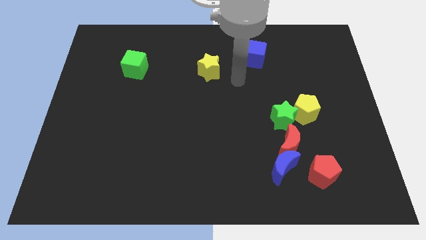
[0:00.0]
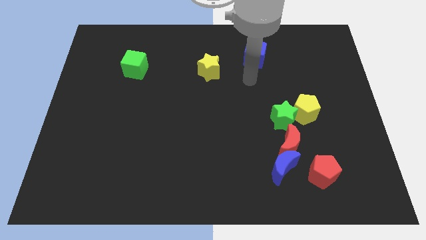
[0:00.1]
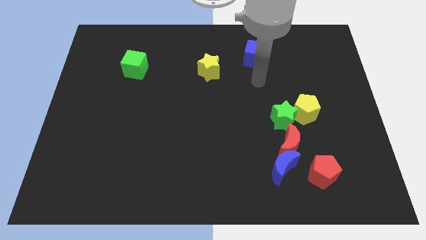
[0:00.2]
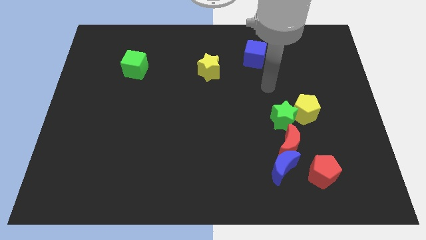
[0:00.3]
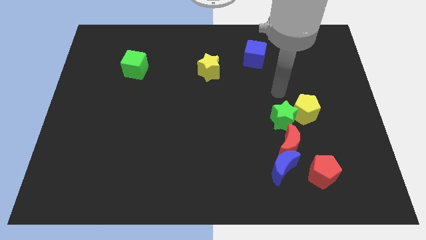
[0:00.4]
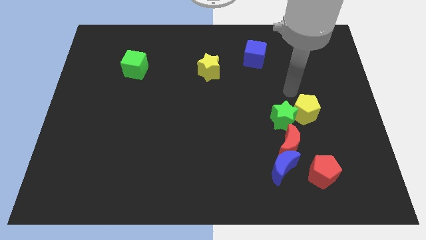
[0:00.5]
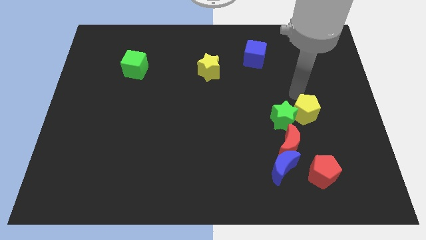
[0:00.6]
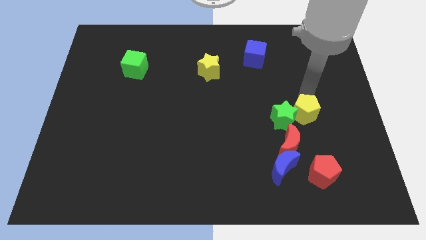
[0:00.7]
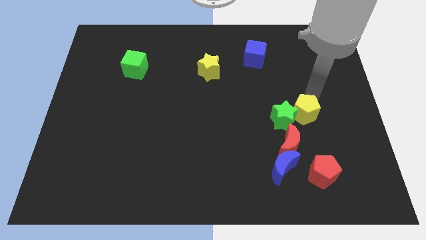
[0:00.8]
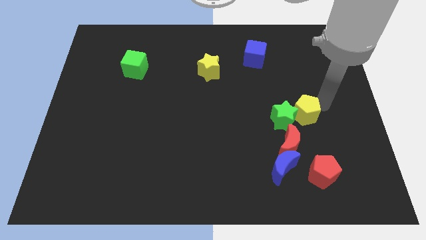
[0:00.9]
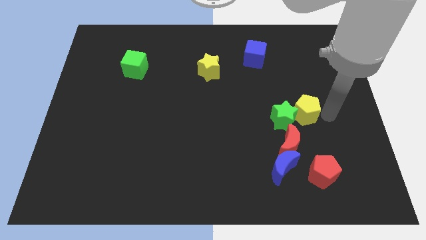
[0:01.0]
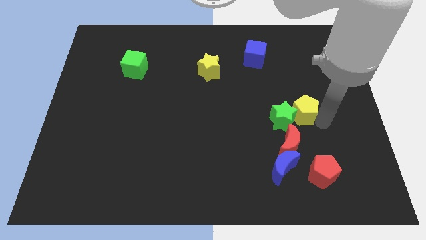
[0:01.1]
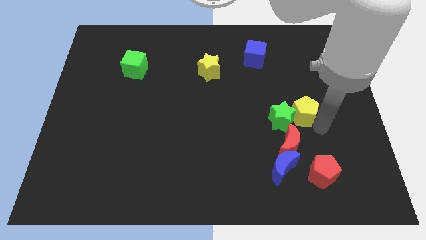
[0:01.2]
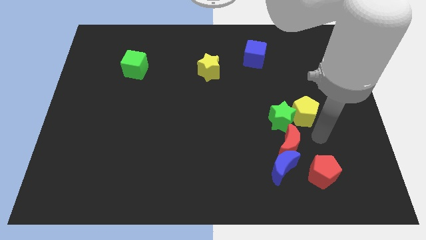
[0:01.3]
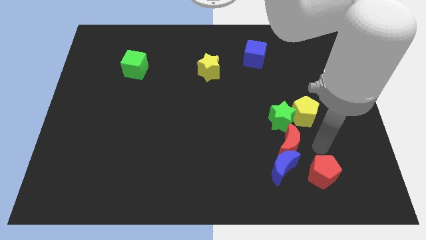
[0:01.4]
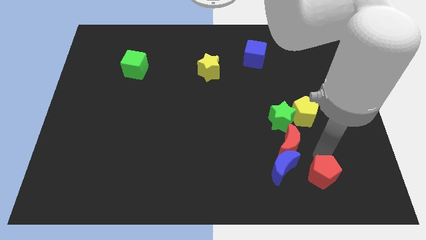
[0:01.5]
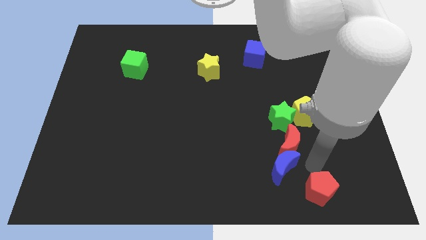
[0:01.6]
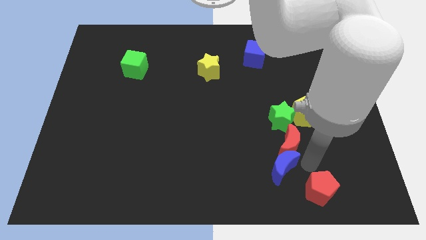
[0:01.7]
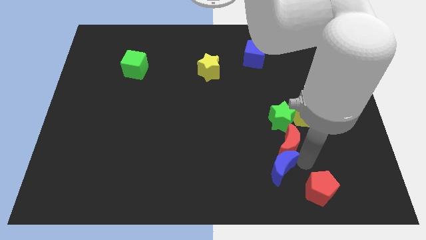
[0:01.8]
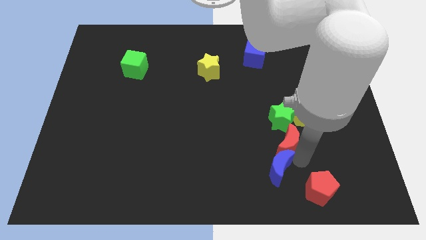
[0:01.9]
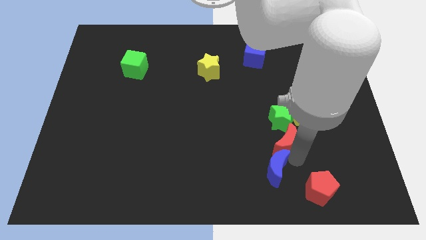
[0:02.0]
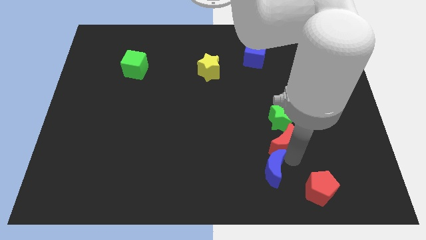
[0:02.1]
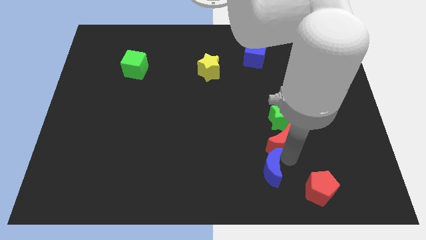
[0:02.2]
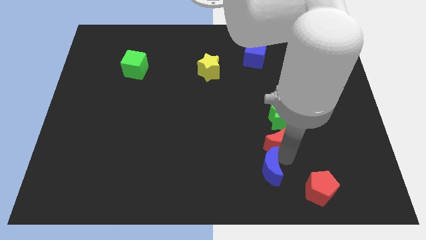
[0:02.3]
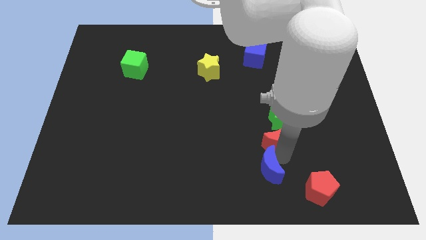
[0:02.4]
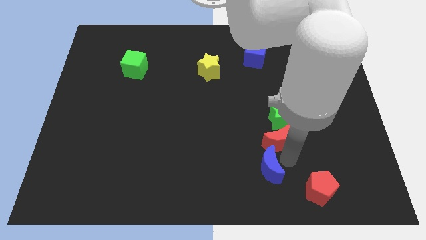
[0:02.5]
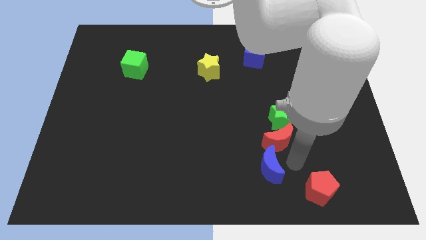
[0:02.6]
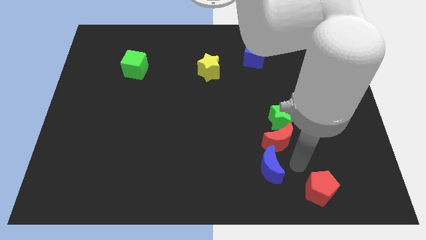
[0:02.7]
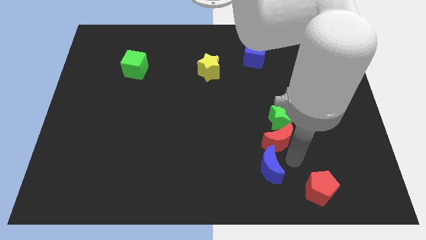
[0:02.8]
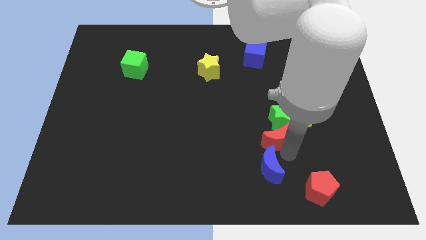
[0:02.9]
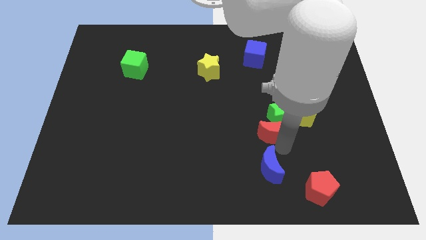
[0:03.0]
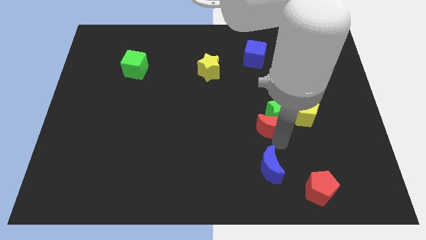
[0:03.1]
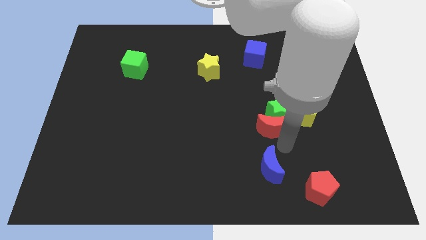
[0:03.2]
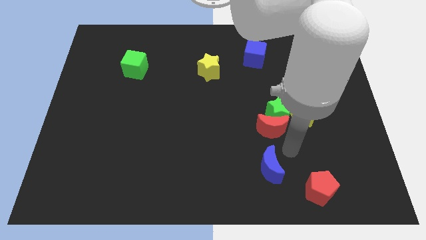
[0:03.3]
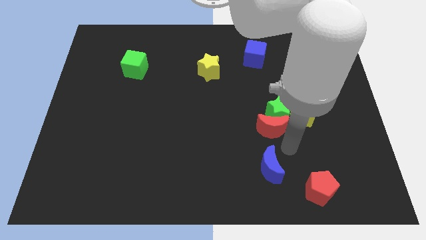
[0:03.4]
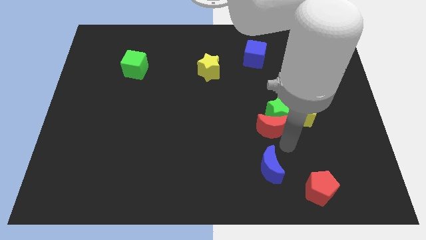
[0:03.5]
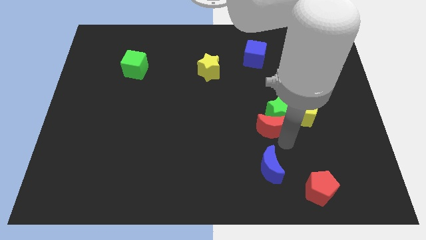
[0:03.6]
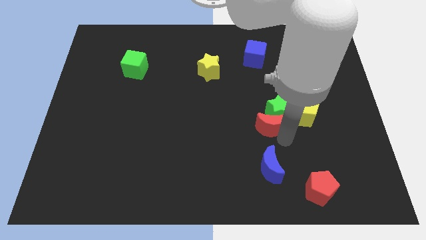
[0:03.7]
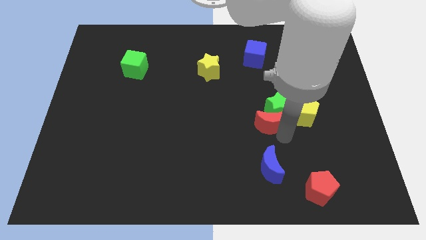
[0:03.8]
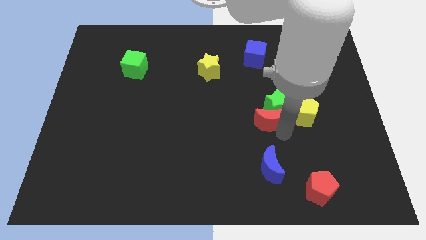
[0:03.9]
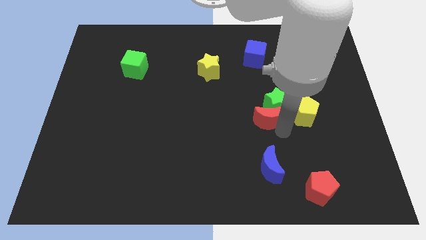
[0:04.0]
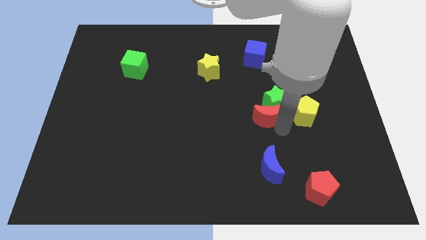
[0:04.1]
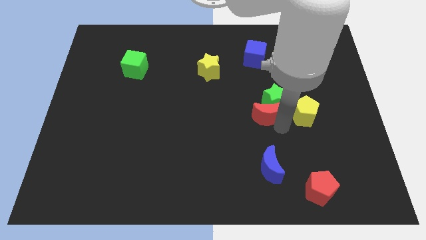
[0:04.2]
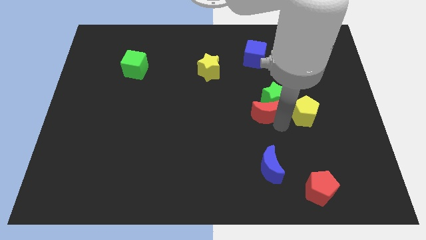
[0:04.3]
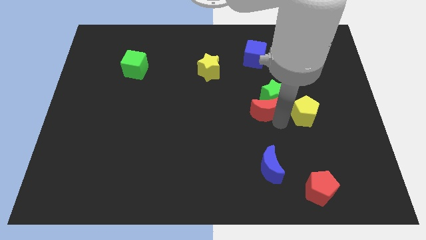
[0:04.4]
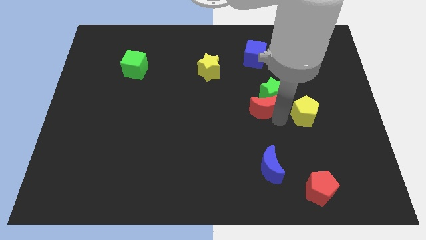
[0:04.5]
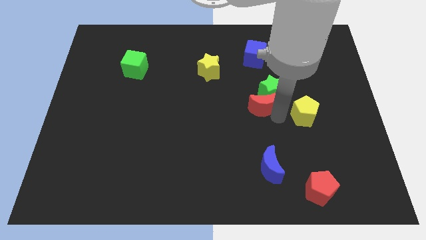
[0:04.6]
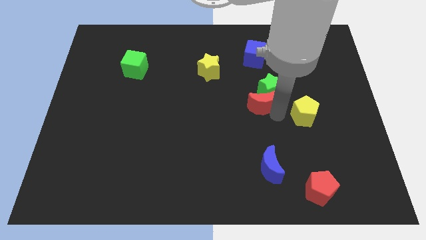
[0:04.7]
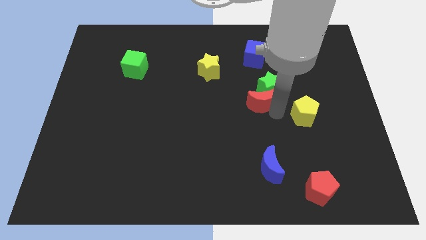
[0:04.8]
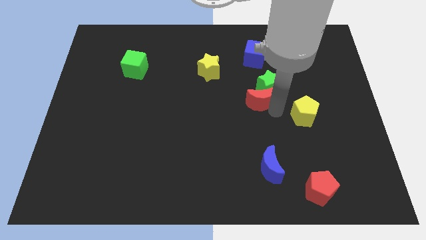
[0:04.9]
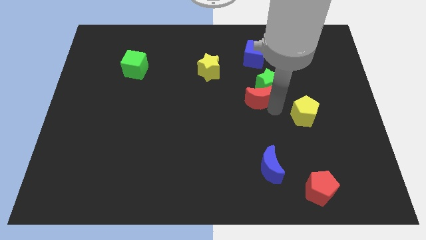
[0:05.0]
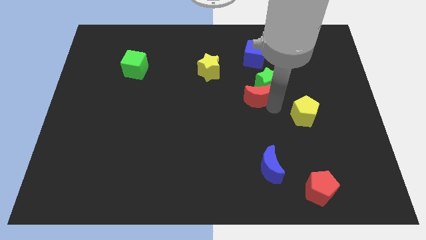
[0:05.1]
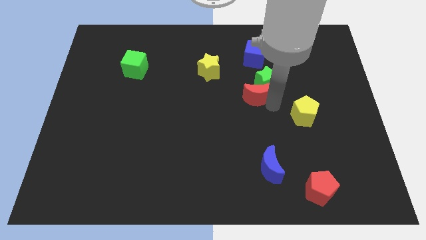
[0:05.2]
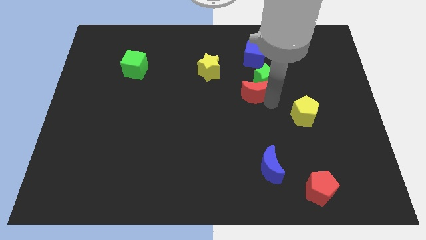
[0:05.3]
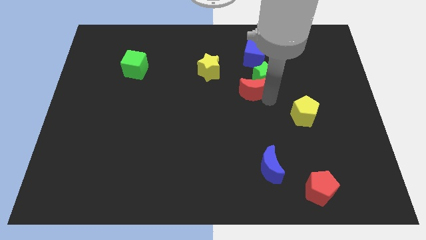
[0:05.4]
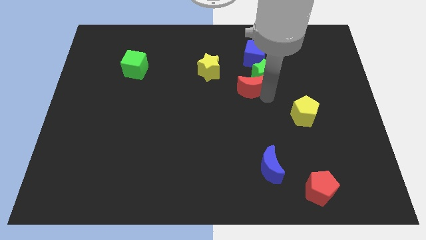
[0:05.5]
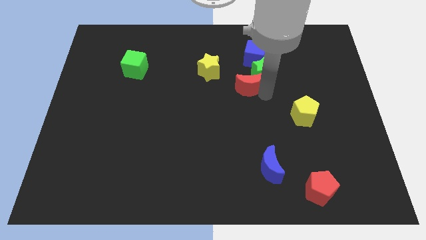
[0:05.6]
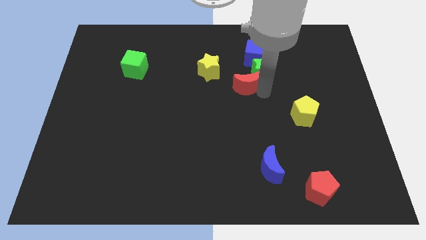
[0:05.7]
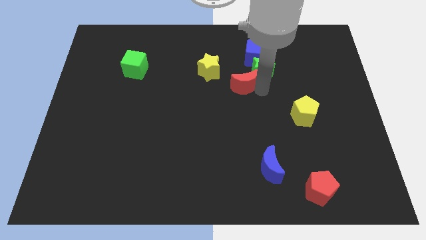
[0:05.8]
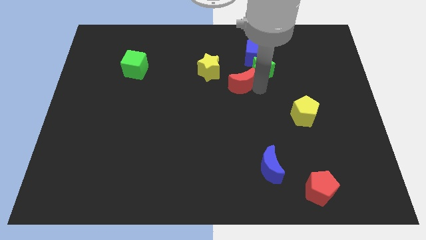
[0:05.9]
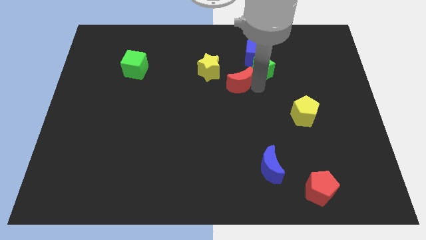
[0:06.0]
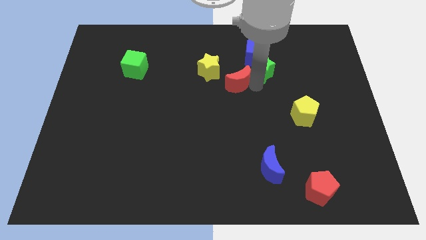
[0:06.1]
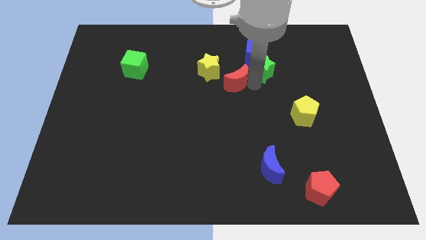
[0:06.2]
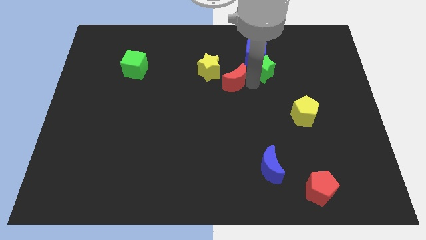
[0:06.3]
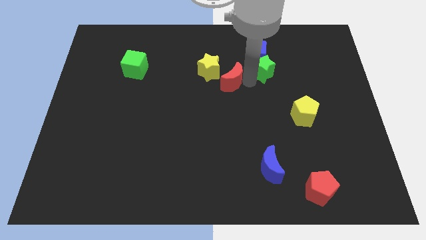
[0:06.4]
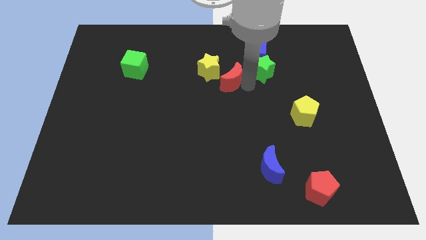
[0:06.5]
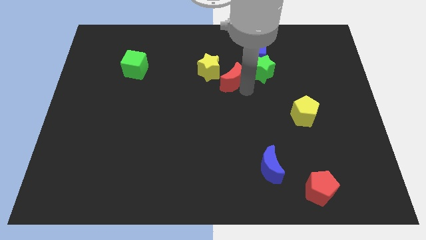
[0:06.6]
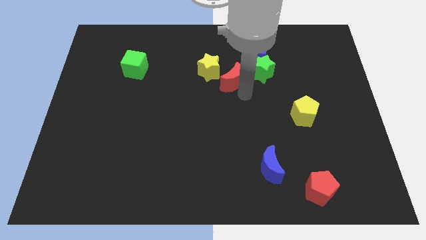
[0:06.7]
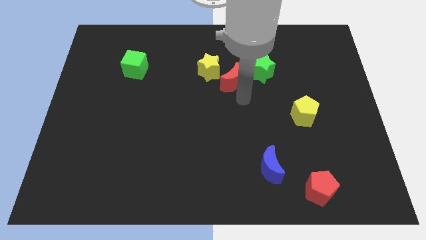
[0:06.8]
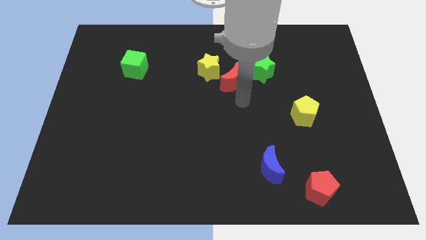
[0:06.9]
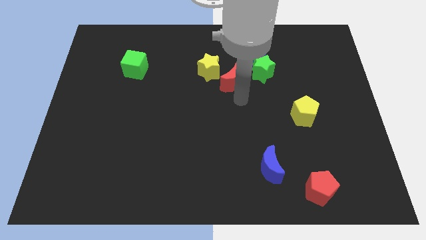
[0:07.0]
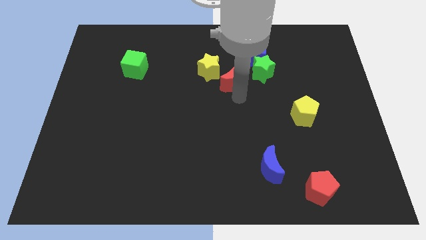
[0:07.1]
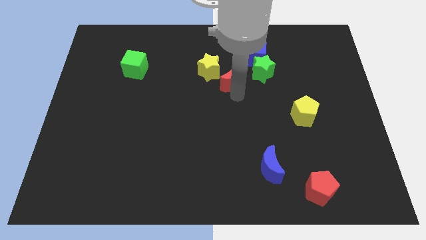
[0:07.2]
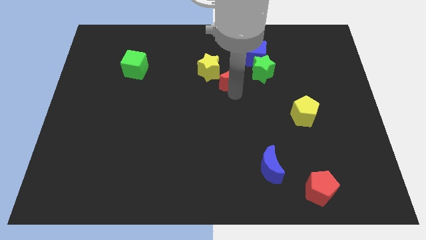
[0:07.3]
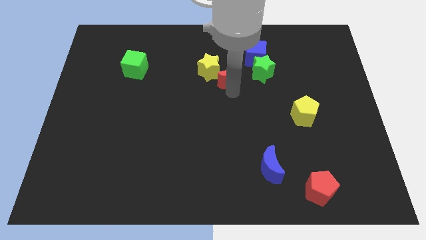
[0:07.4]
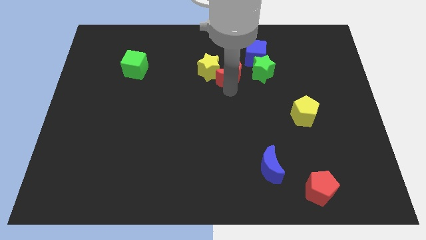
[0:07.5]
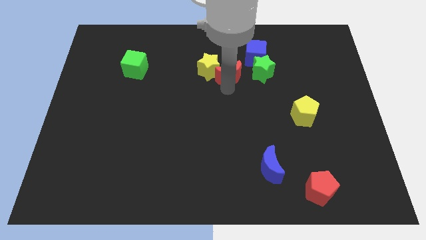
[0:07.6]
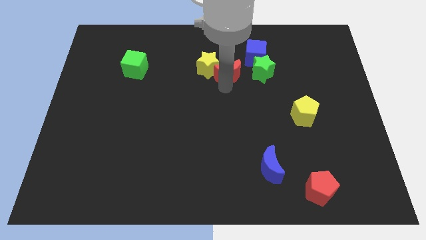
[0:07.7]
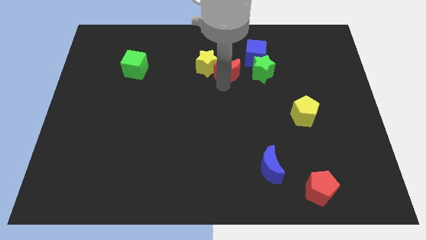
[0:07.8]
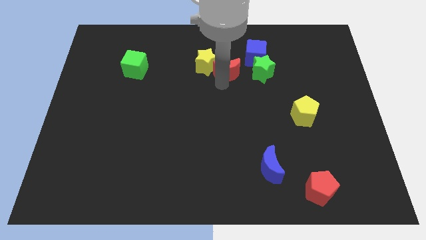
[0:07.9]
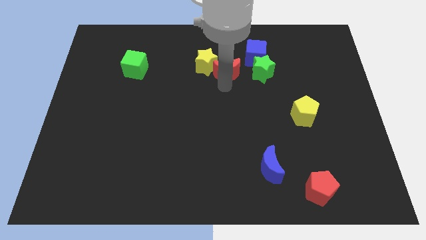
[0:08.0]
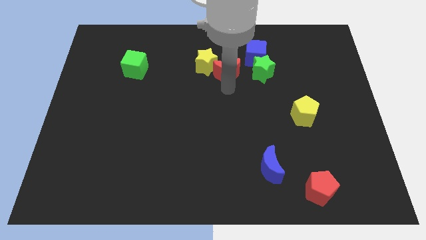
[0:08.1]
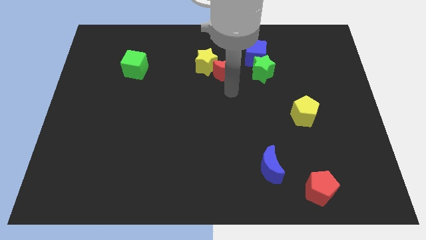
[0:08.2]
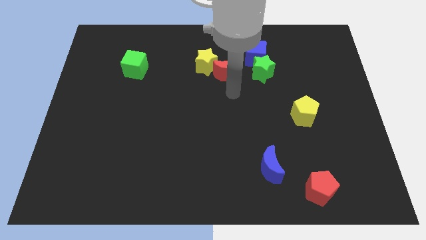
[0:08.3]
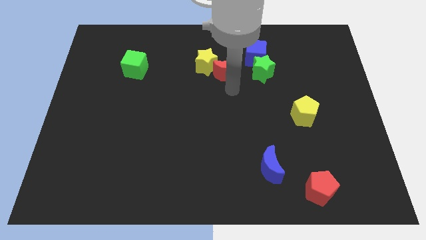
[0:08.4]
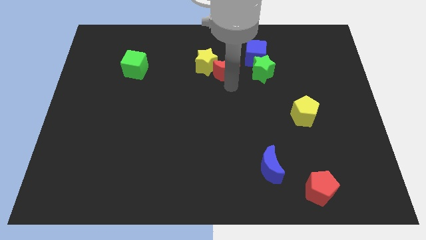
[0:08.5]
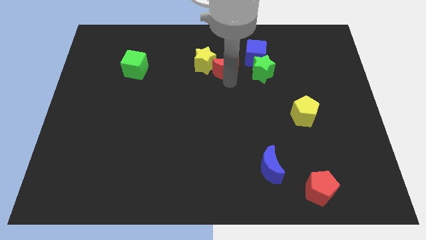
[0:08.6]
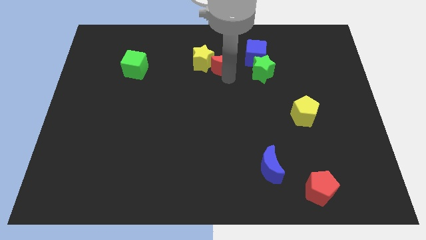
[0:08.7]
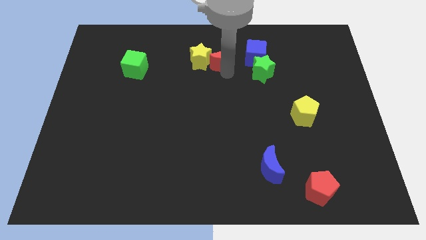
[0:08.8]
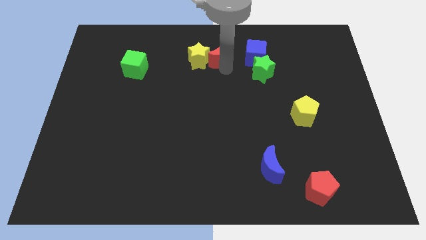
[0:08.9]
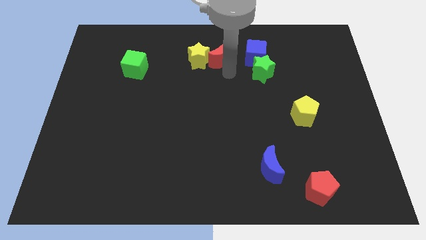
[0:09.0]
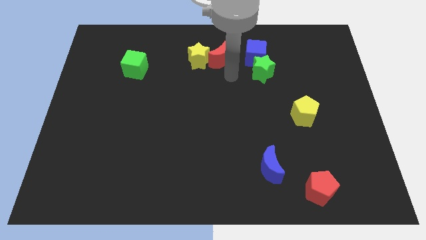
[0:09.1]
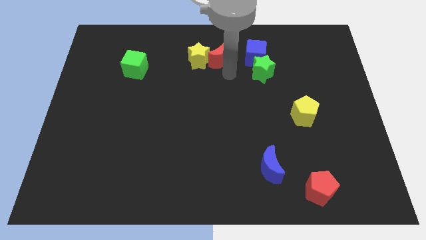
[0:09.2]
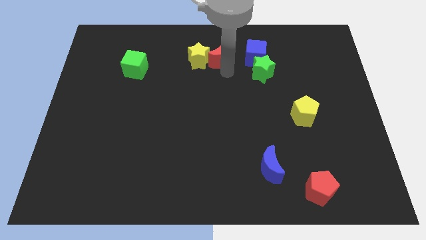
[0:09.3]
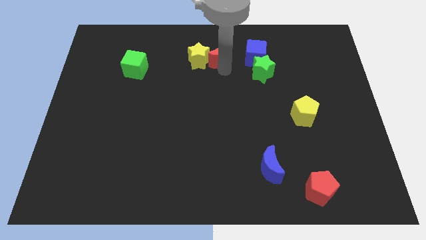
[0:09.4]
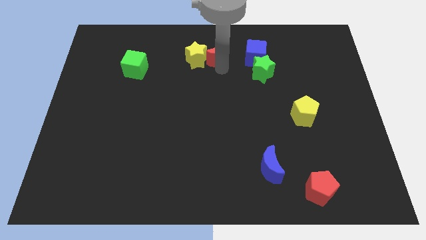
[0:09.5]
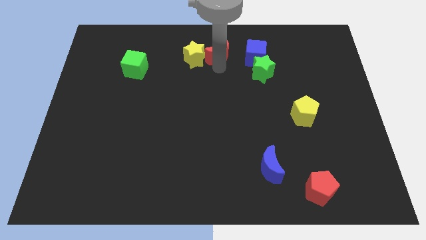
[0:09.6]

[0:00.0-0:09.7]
slide the red moon to the top
